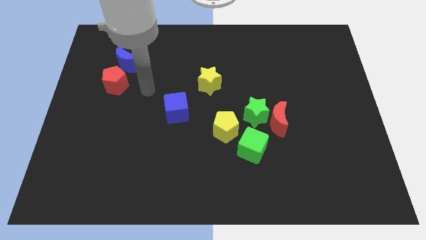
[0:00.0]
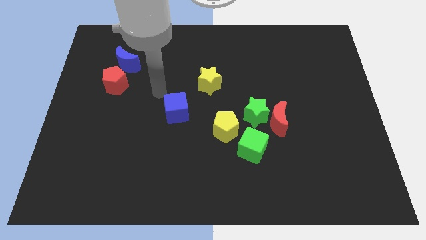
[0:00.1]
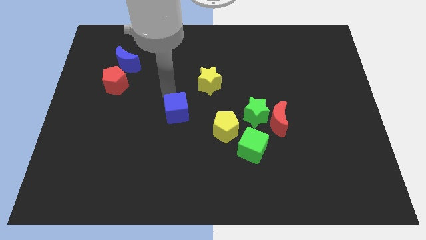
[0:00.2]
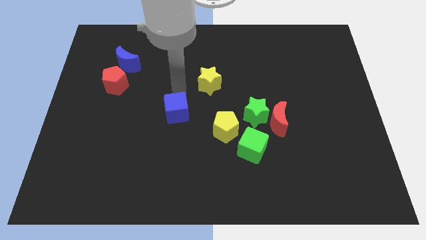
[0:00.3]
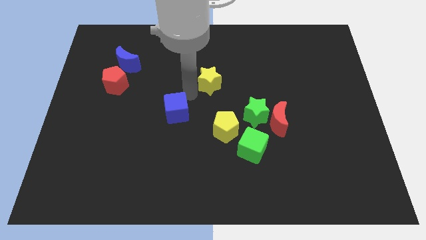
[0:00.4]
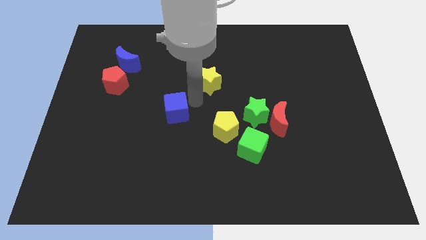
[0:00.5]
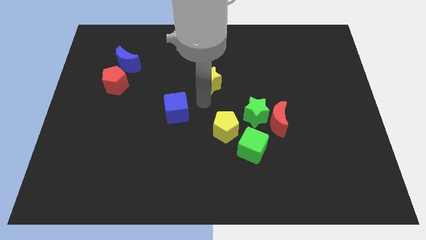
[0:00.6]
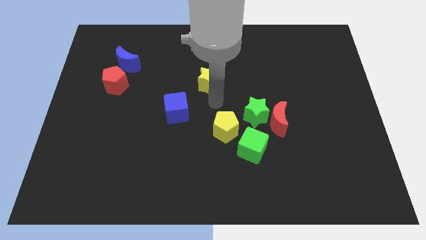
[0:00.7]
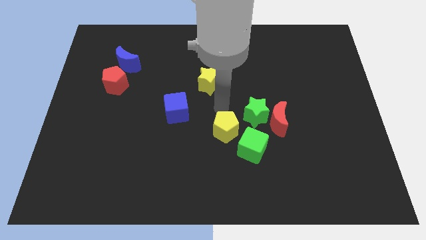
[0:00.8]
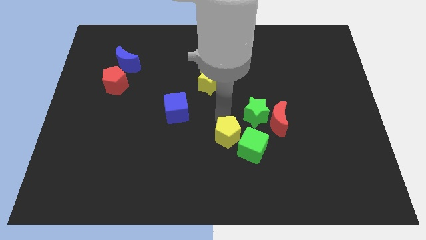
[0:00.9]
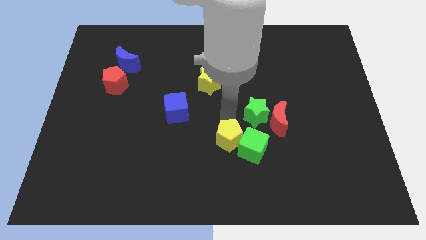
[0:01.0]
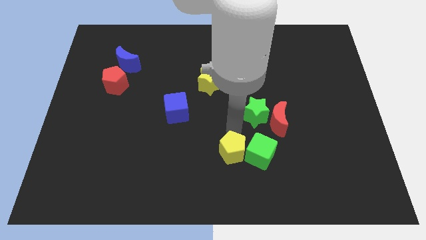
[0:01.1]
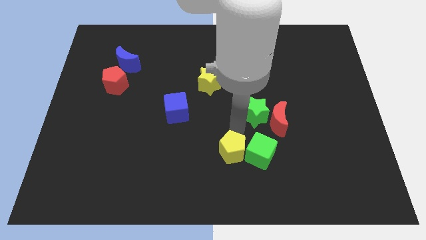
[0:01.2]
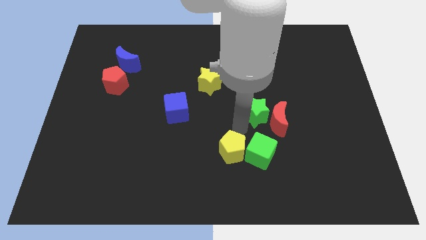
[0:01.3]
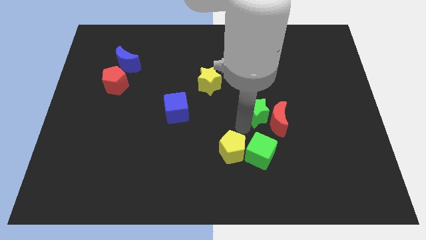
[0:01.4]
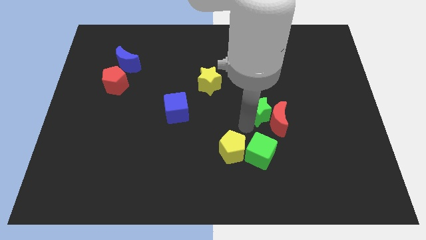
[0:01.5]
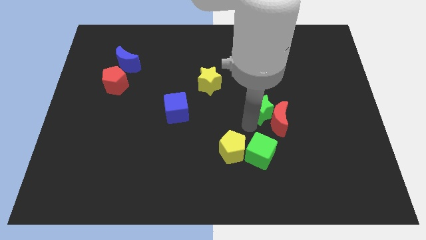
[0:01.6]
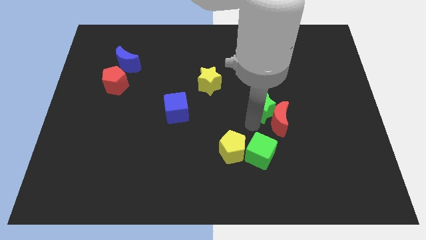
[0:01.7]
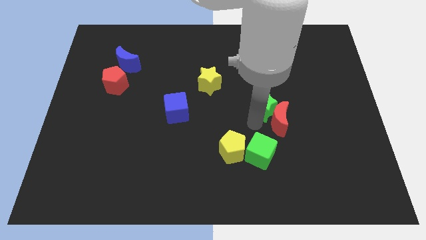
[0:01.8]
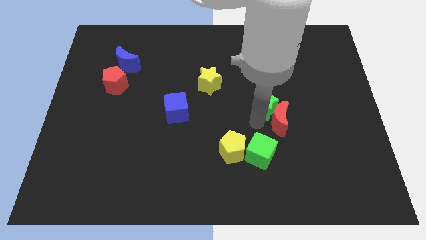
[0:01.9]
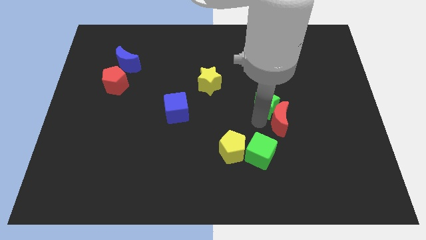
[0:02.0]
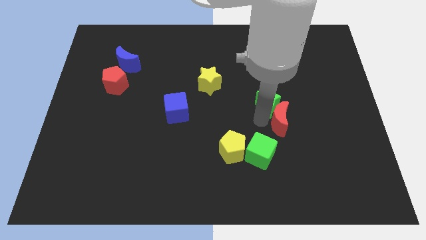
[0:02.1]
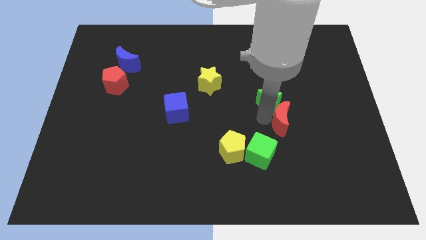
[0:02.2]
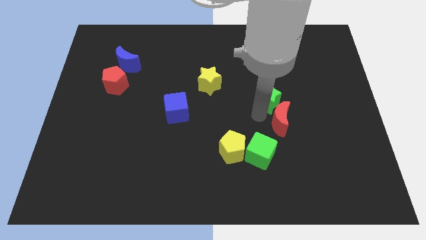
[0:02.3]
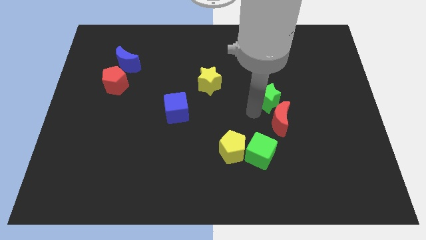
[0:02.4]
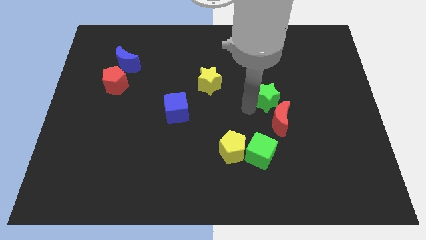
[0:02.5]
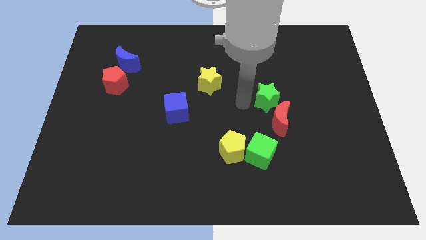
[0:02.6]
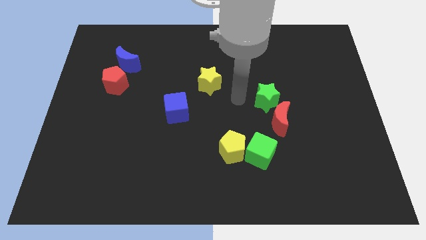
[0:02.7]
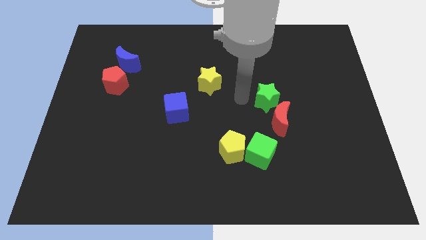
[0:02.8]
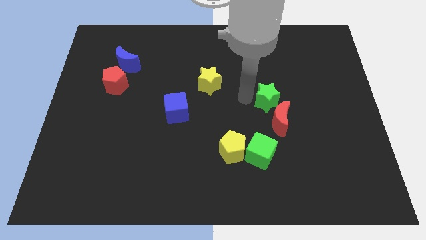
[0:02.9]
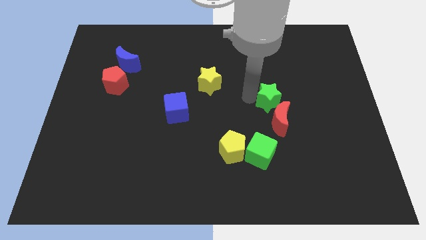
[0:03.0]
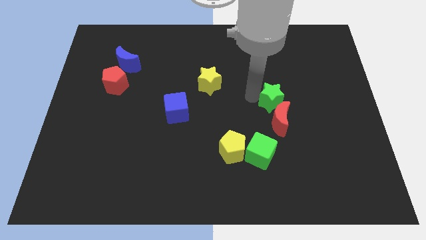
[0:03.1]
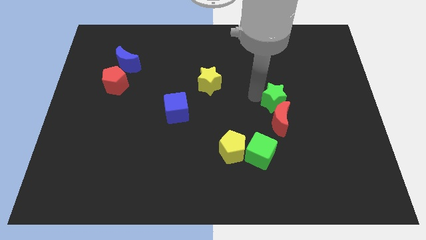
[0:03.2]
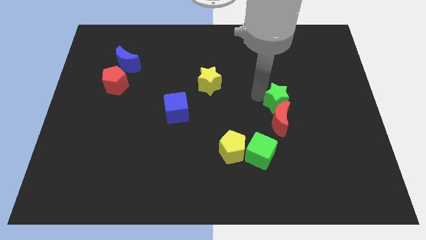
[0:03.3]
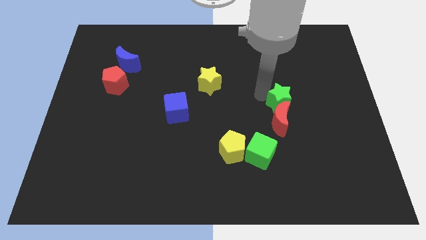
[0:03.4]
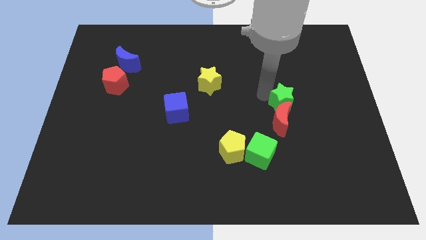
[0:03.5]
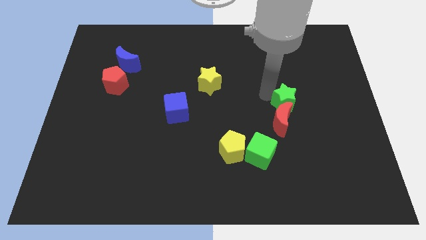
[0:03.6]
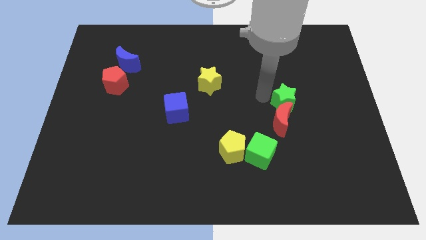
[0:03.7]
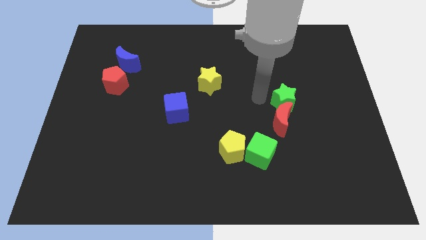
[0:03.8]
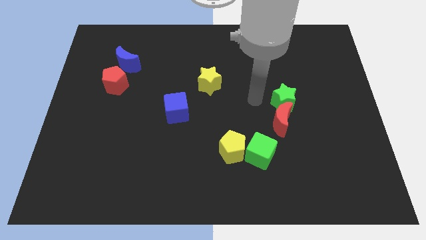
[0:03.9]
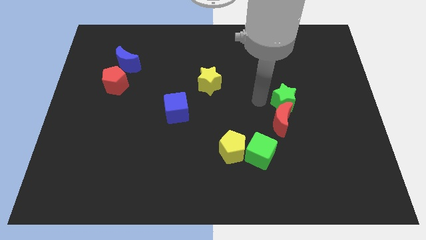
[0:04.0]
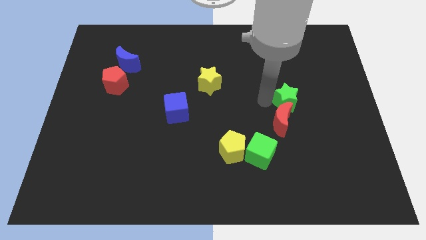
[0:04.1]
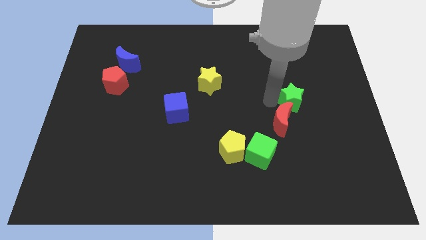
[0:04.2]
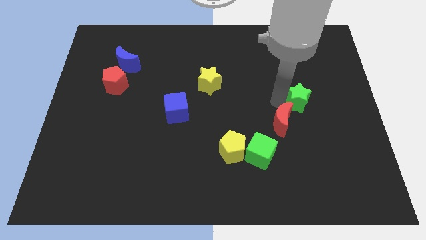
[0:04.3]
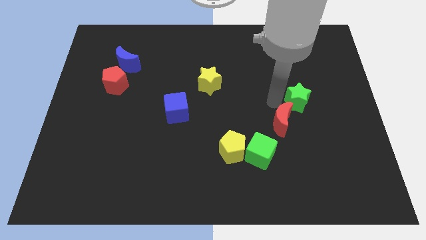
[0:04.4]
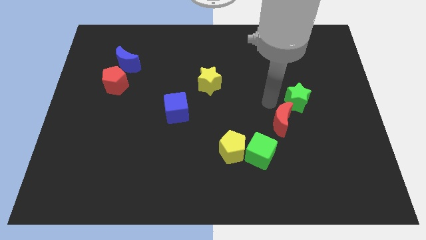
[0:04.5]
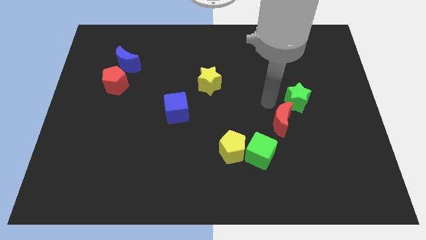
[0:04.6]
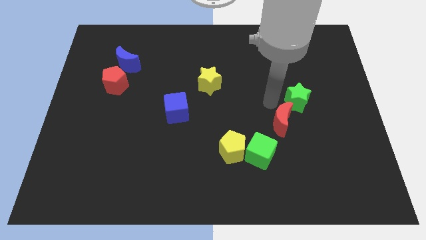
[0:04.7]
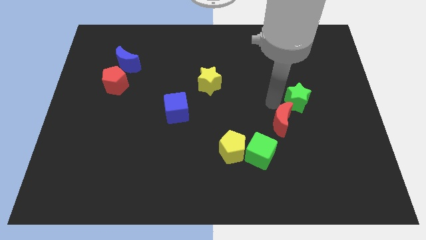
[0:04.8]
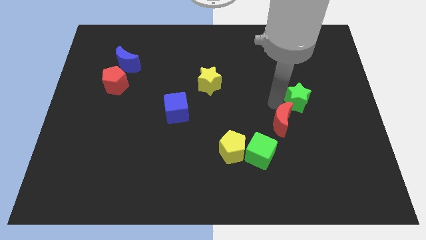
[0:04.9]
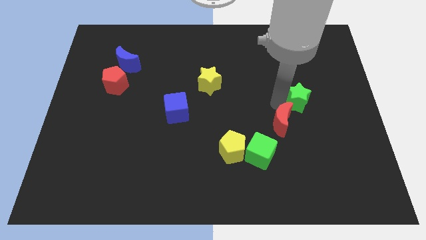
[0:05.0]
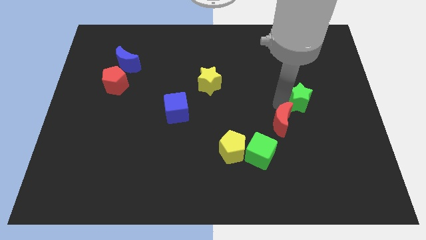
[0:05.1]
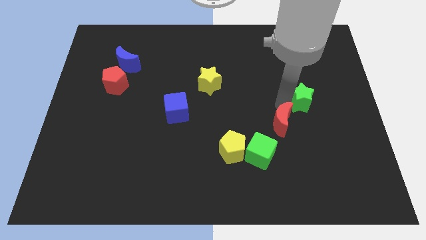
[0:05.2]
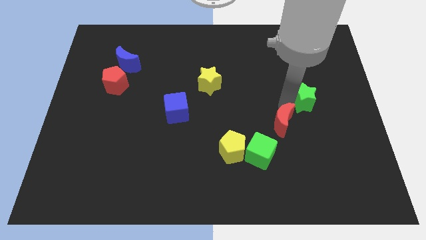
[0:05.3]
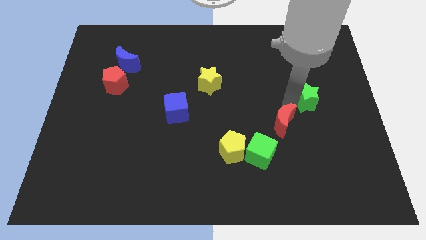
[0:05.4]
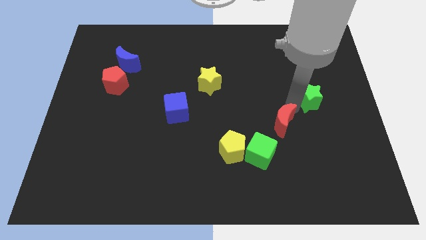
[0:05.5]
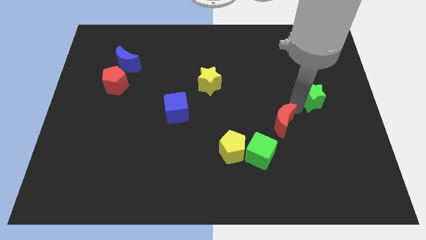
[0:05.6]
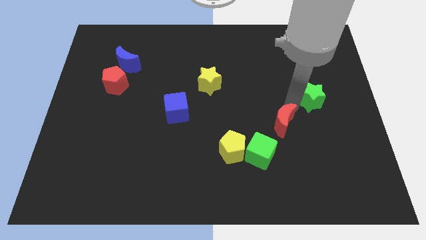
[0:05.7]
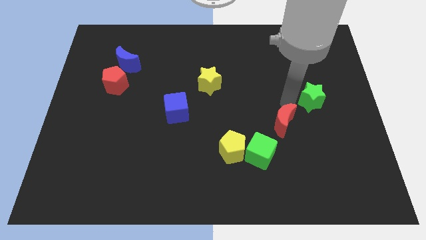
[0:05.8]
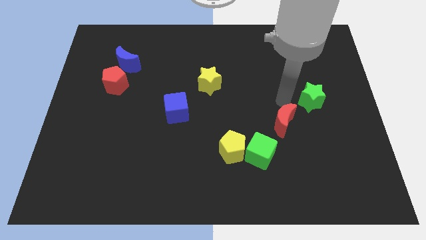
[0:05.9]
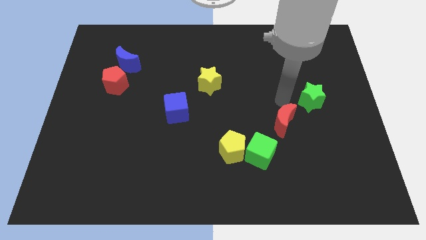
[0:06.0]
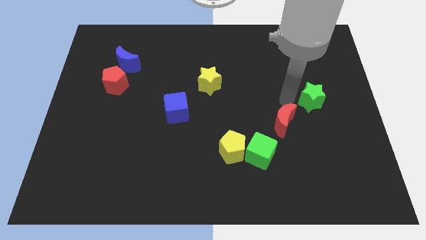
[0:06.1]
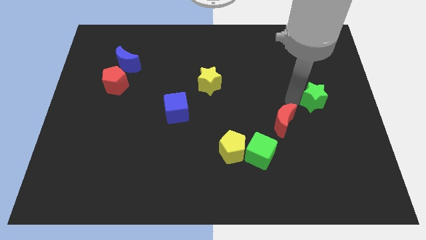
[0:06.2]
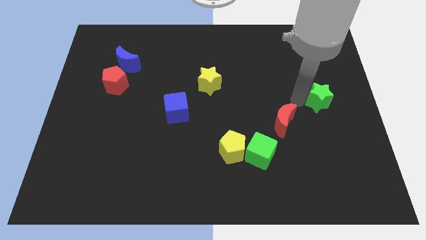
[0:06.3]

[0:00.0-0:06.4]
move the green star to the right side of the board

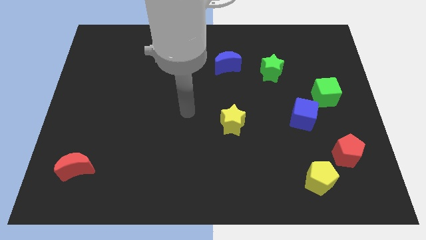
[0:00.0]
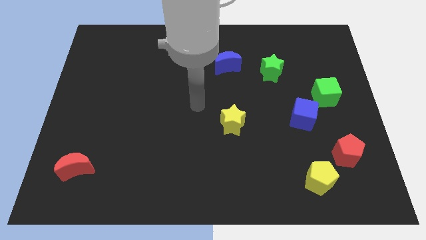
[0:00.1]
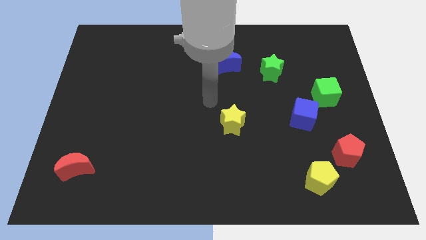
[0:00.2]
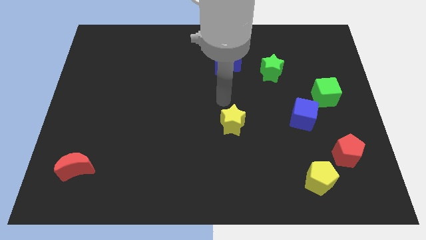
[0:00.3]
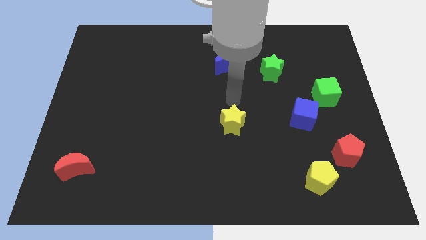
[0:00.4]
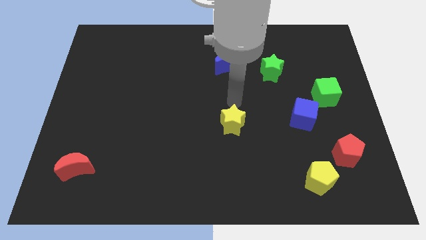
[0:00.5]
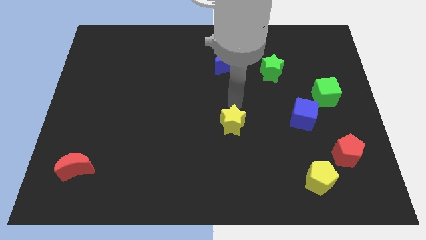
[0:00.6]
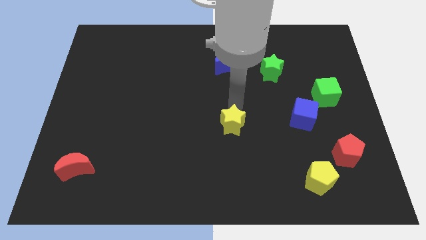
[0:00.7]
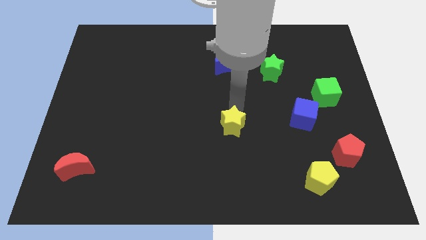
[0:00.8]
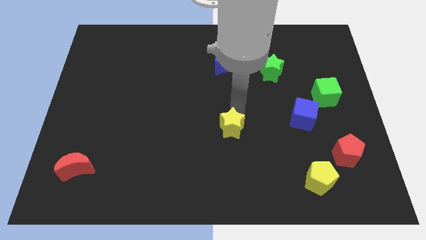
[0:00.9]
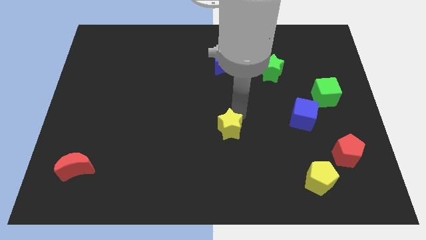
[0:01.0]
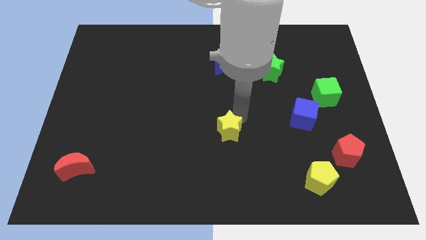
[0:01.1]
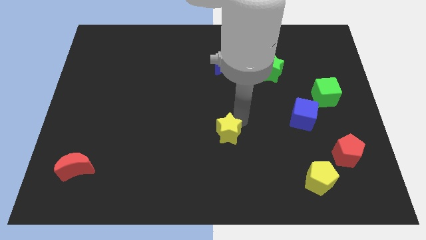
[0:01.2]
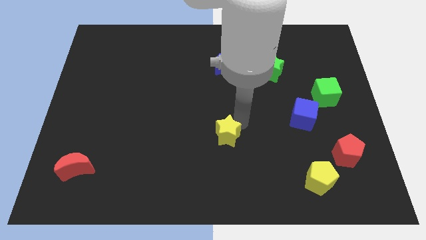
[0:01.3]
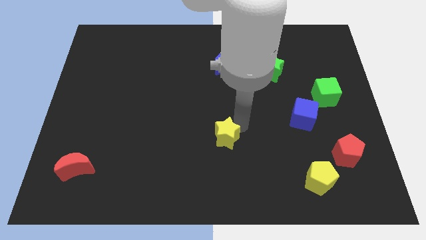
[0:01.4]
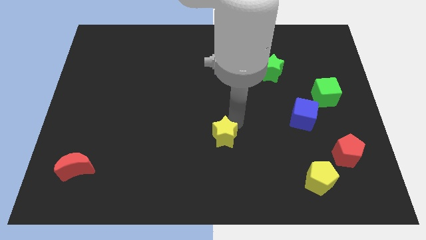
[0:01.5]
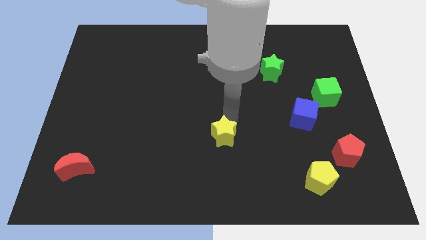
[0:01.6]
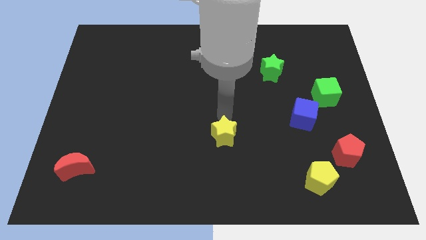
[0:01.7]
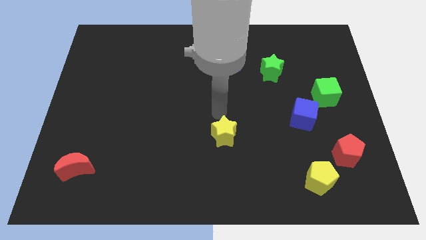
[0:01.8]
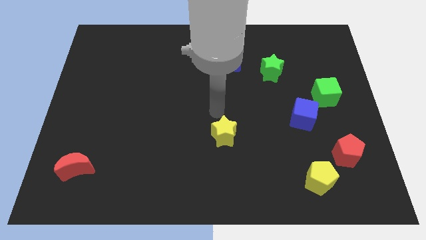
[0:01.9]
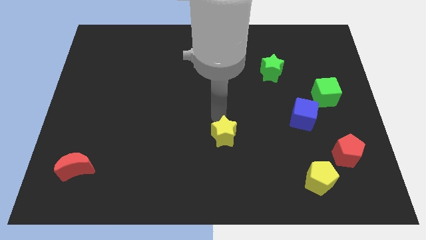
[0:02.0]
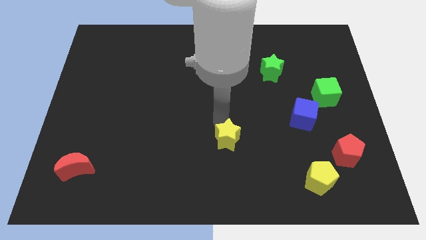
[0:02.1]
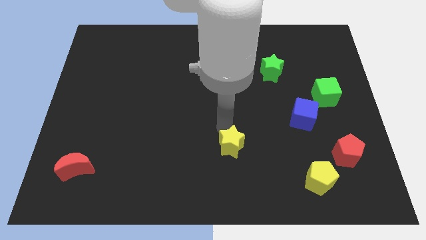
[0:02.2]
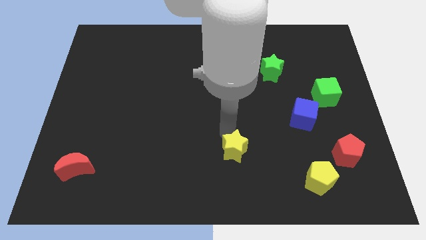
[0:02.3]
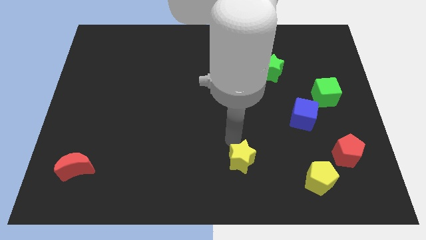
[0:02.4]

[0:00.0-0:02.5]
put the yellow star to the bottom side
